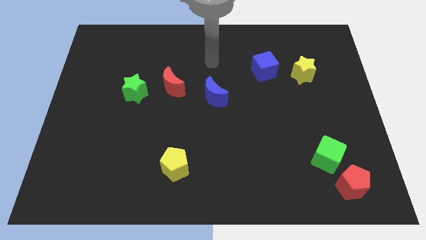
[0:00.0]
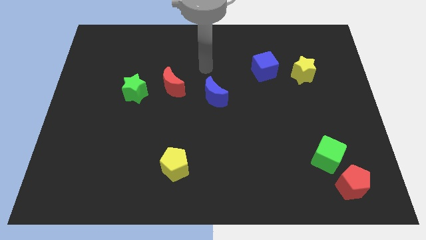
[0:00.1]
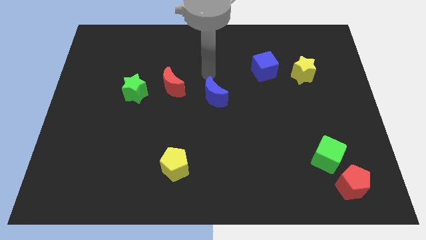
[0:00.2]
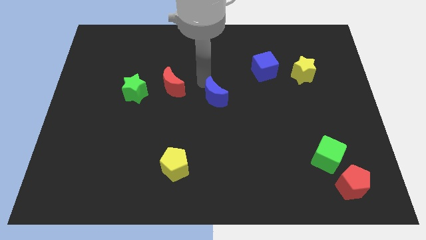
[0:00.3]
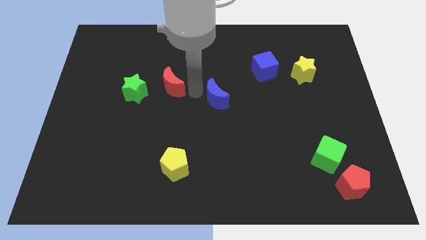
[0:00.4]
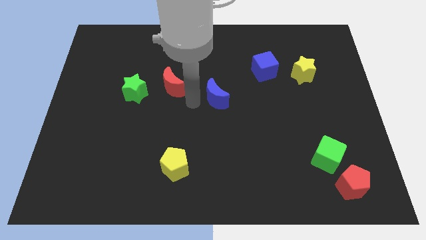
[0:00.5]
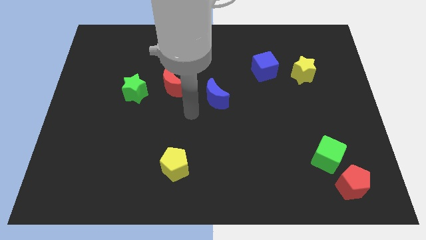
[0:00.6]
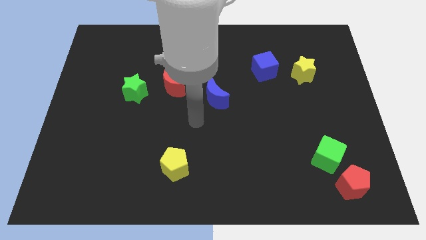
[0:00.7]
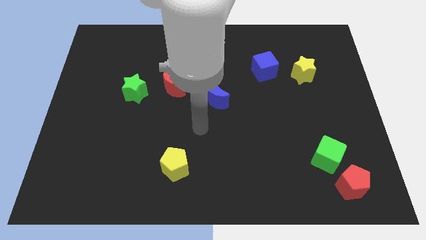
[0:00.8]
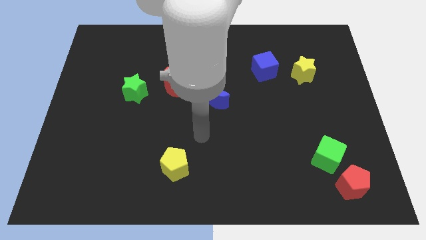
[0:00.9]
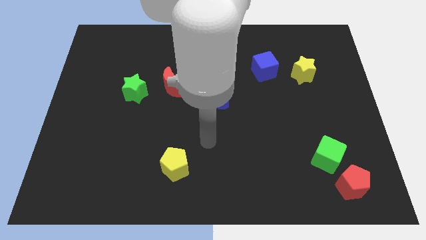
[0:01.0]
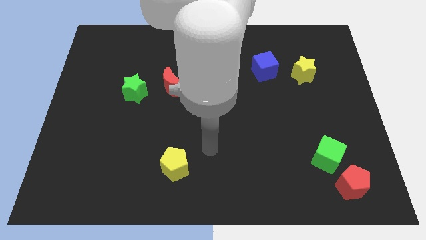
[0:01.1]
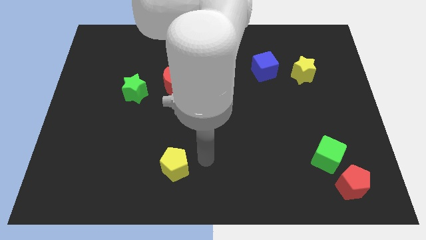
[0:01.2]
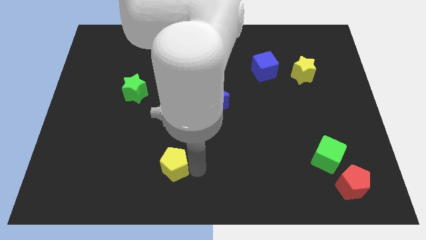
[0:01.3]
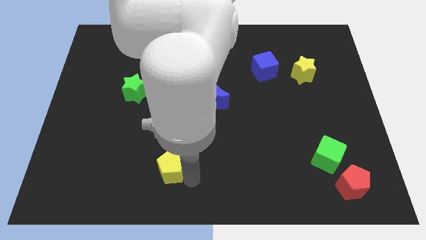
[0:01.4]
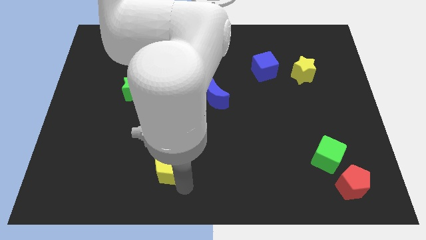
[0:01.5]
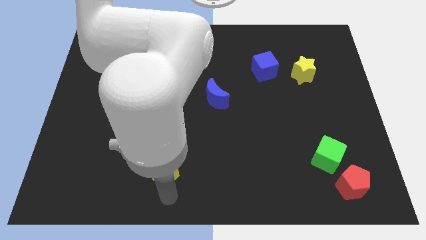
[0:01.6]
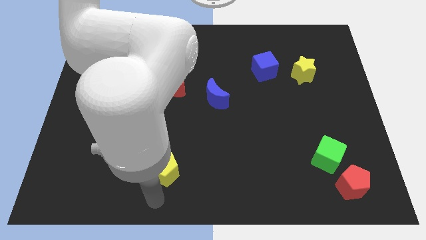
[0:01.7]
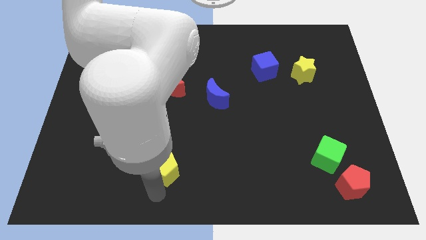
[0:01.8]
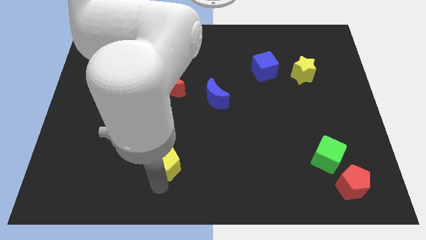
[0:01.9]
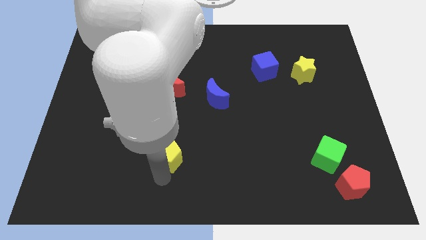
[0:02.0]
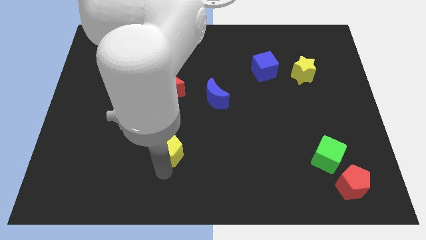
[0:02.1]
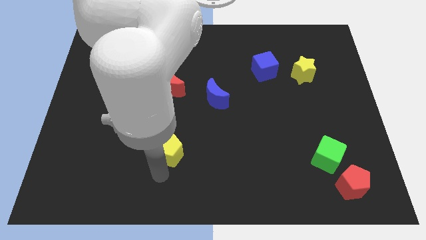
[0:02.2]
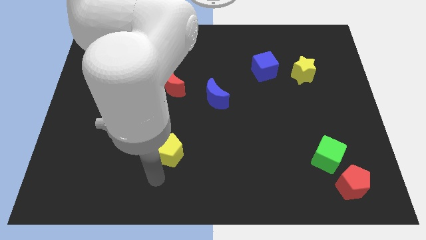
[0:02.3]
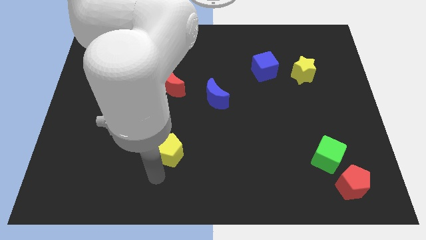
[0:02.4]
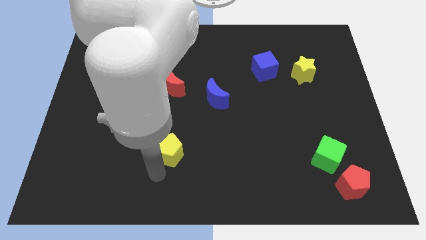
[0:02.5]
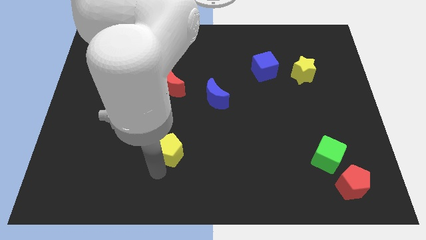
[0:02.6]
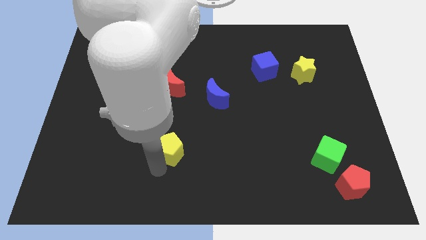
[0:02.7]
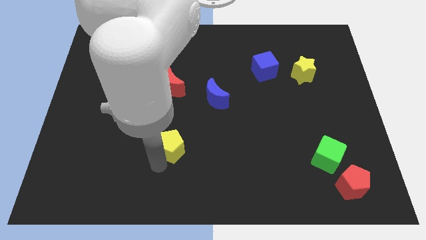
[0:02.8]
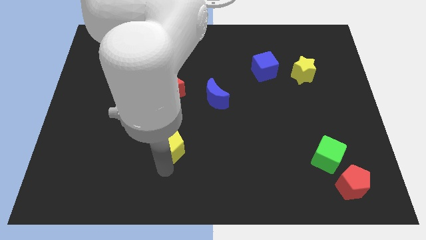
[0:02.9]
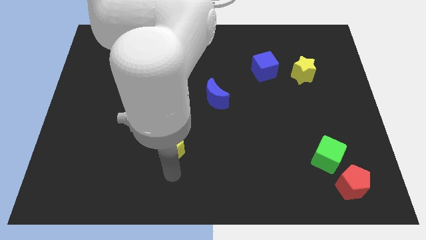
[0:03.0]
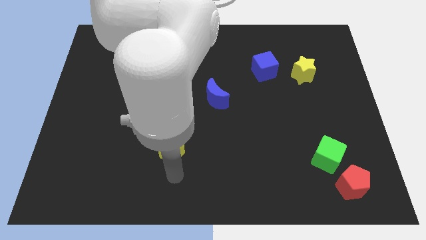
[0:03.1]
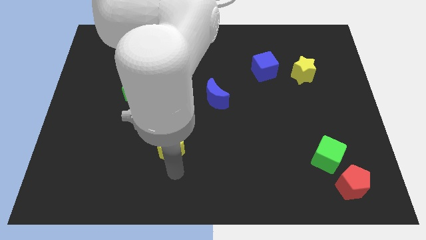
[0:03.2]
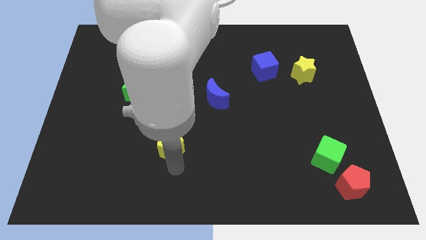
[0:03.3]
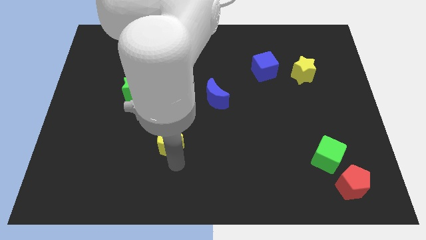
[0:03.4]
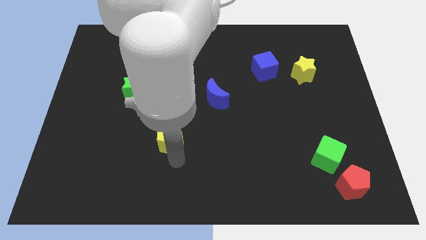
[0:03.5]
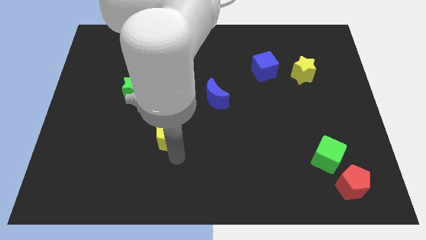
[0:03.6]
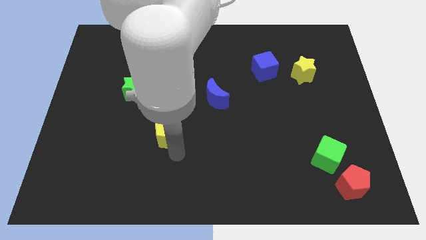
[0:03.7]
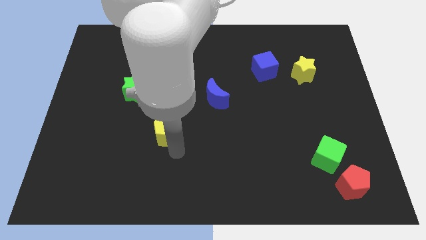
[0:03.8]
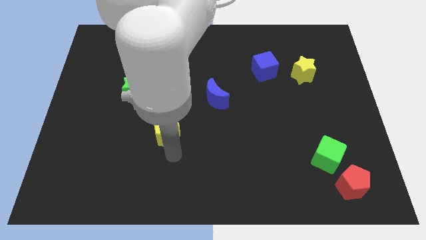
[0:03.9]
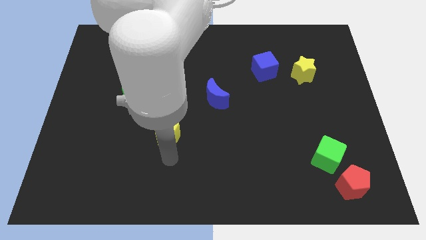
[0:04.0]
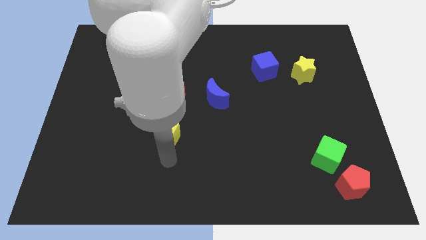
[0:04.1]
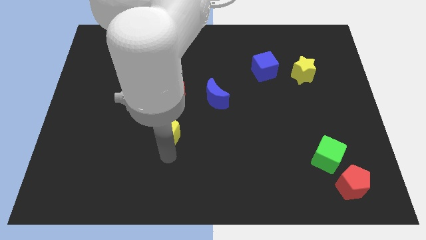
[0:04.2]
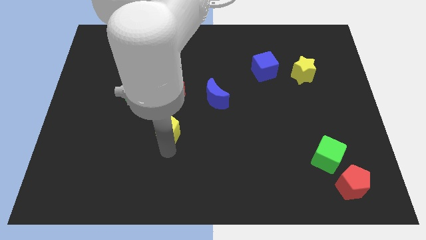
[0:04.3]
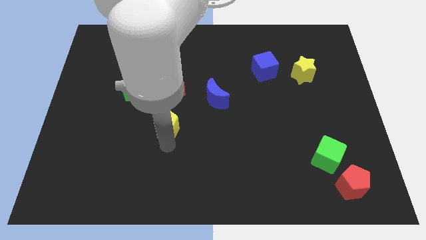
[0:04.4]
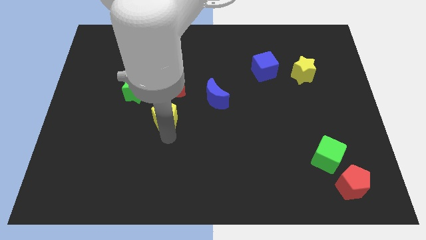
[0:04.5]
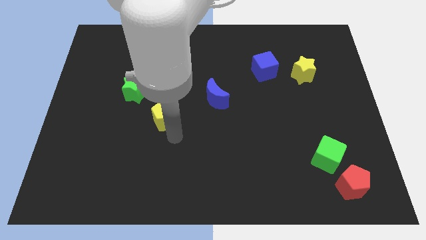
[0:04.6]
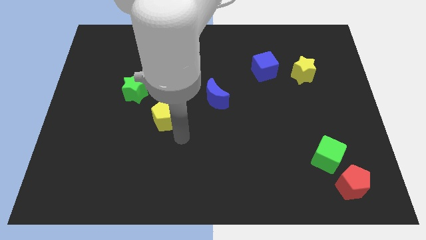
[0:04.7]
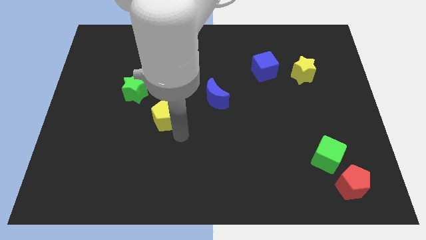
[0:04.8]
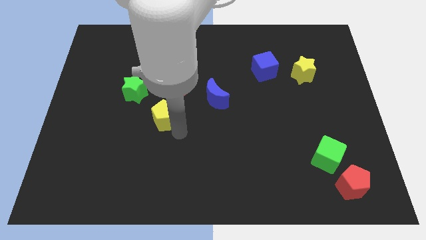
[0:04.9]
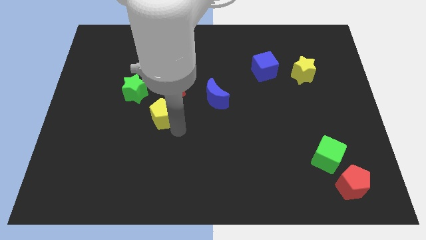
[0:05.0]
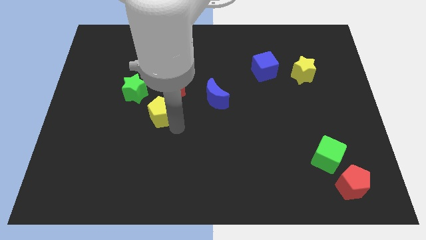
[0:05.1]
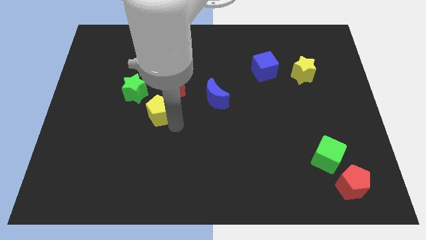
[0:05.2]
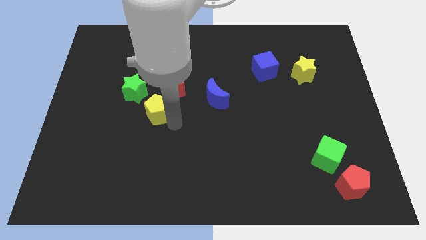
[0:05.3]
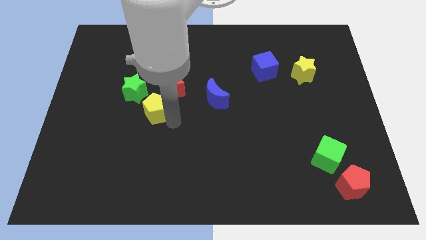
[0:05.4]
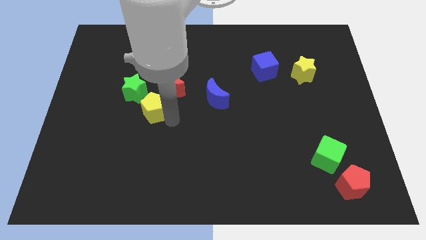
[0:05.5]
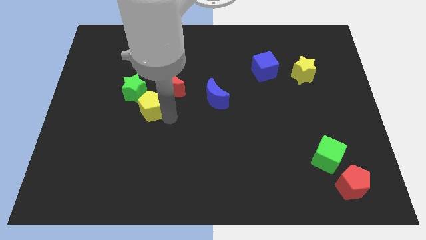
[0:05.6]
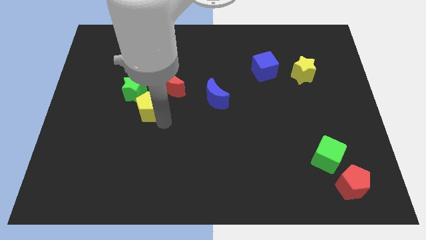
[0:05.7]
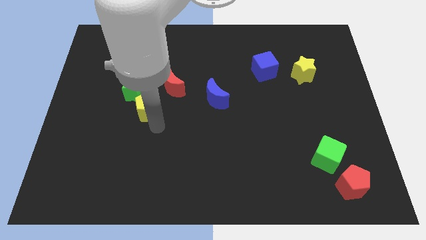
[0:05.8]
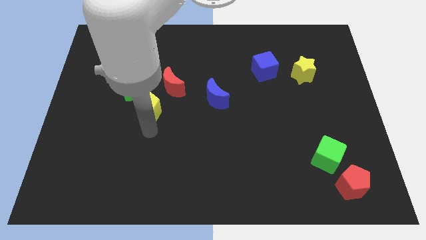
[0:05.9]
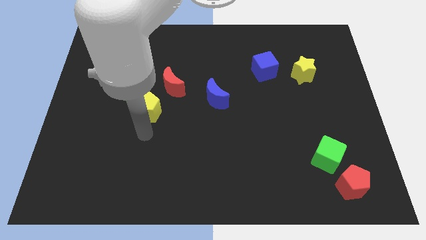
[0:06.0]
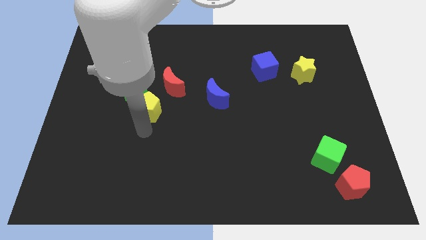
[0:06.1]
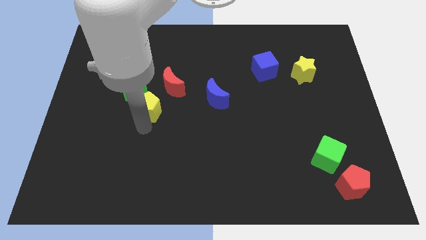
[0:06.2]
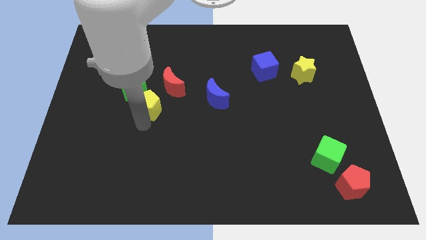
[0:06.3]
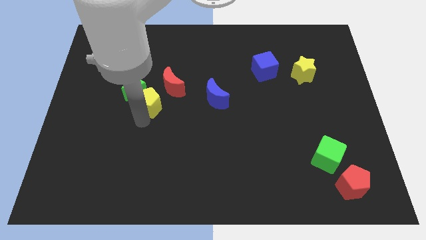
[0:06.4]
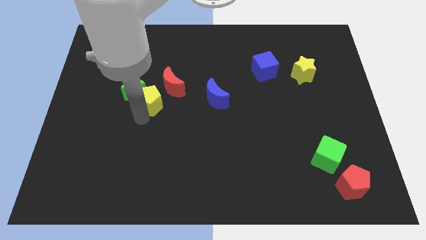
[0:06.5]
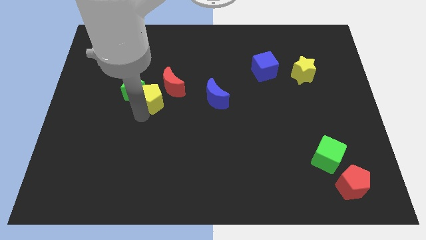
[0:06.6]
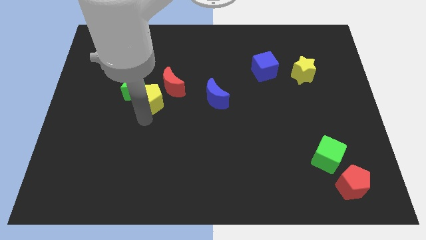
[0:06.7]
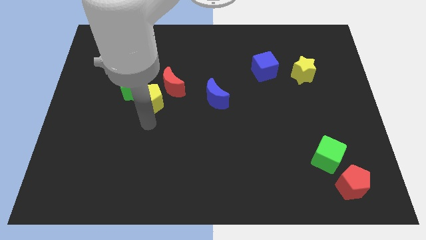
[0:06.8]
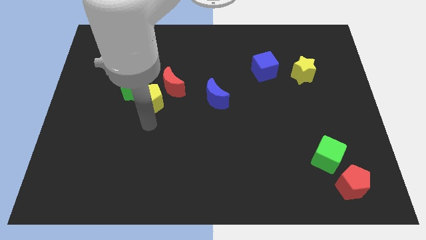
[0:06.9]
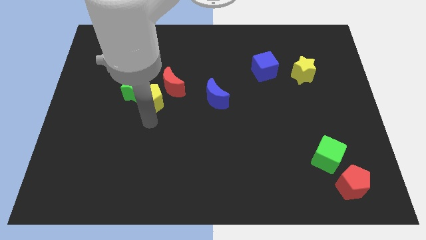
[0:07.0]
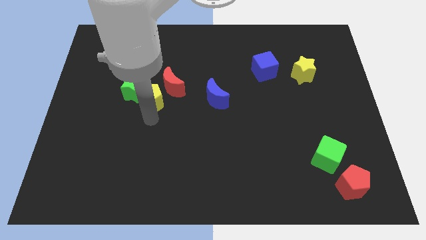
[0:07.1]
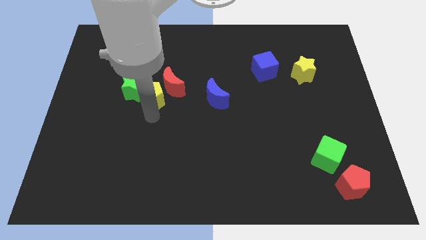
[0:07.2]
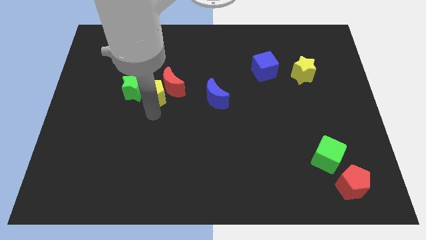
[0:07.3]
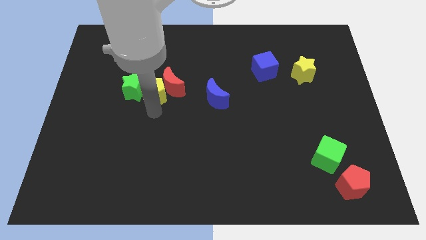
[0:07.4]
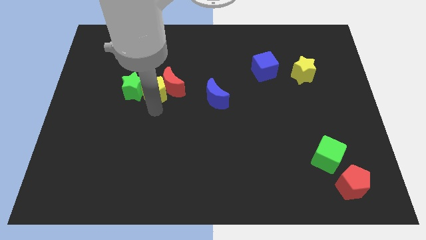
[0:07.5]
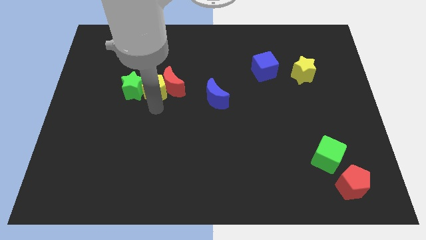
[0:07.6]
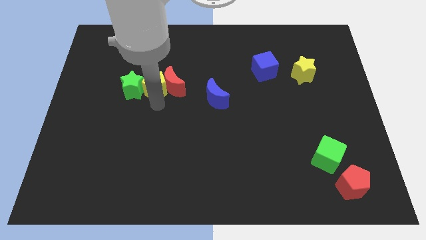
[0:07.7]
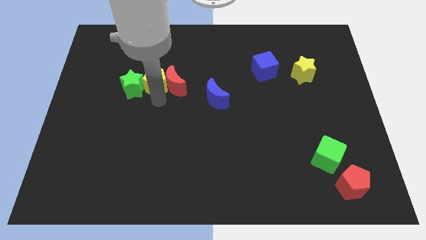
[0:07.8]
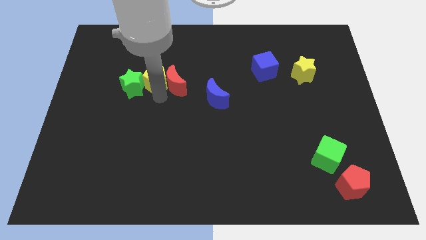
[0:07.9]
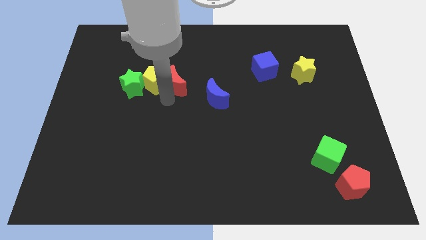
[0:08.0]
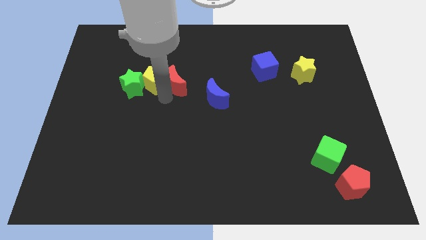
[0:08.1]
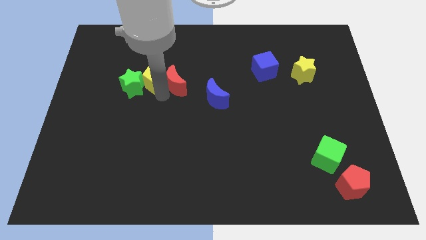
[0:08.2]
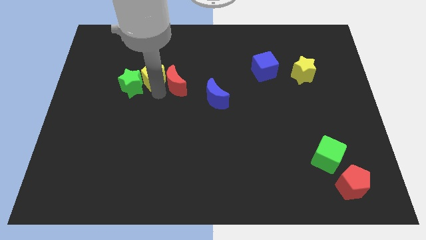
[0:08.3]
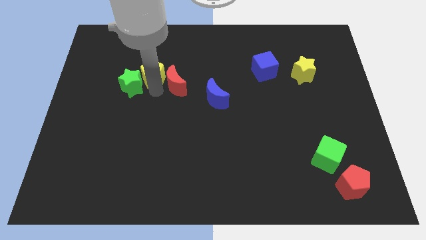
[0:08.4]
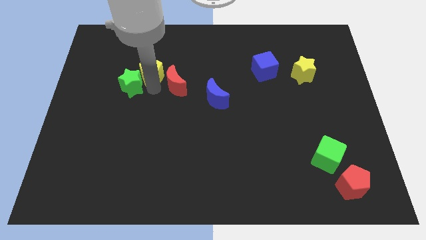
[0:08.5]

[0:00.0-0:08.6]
put the yellow pentagon to the top side of the green star
